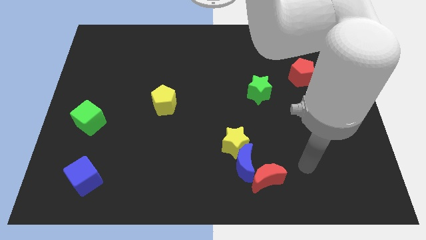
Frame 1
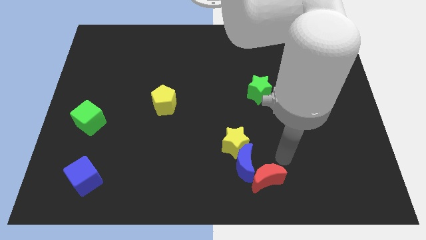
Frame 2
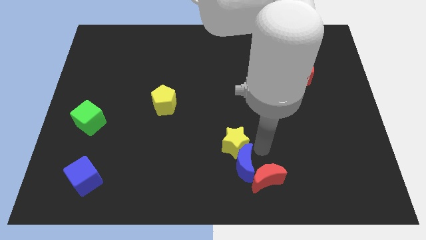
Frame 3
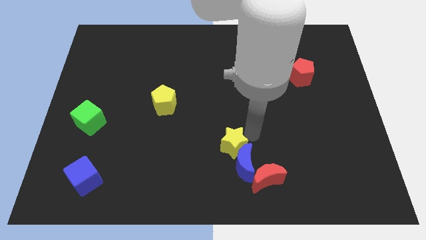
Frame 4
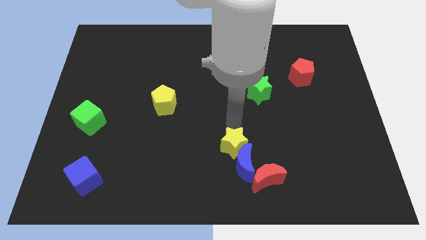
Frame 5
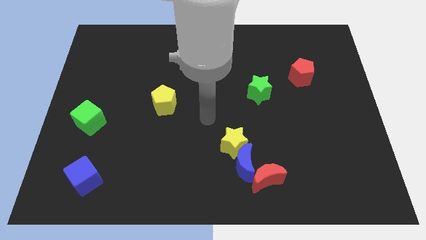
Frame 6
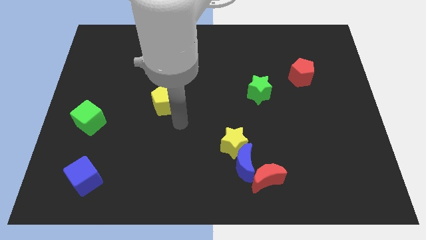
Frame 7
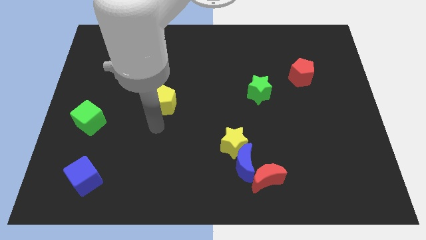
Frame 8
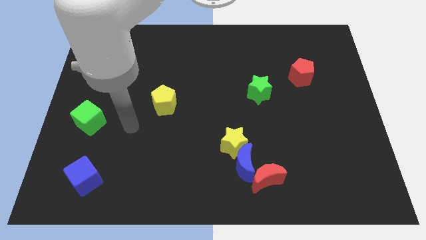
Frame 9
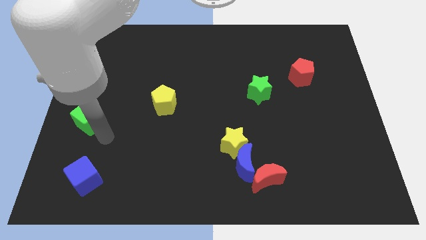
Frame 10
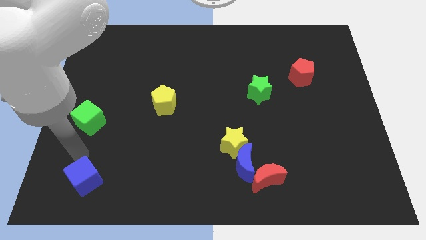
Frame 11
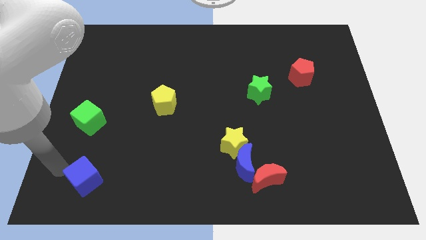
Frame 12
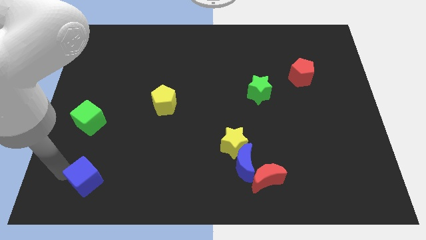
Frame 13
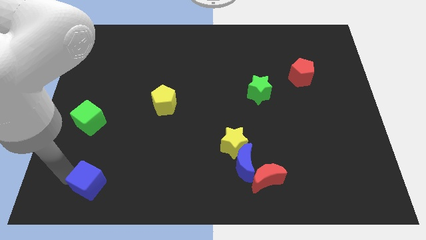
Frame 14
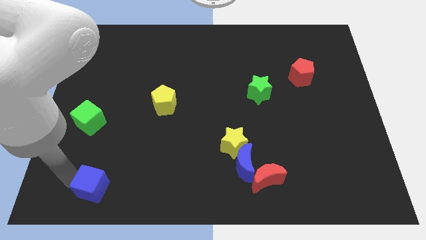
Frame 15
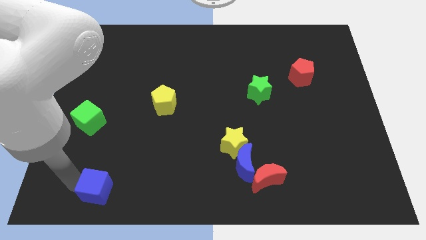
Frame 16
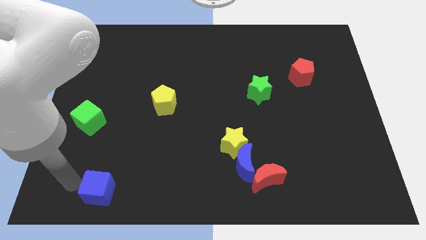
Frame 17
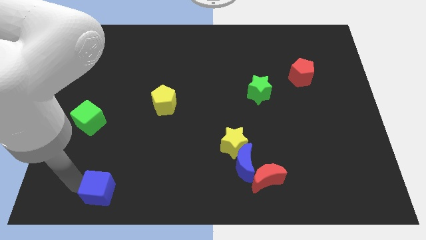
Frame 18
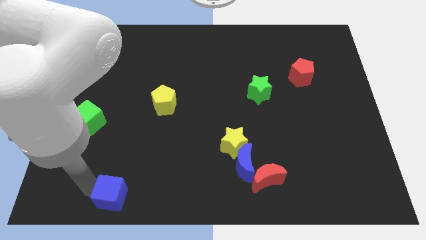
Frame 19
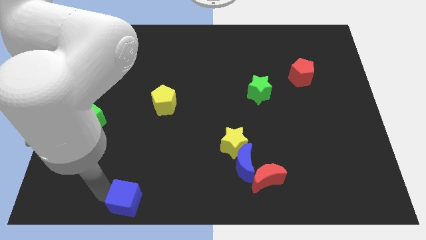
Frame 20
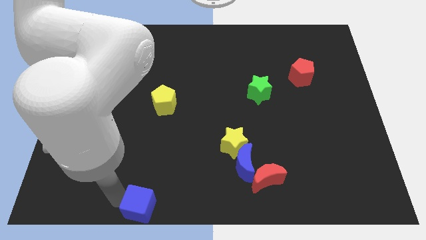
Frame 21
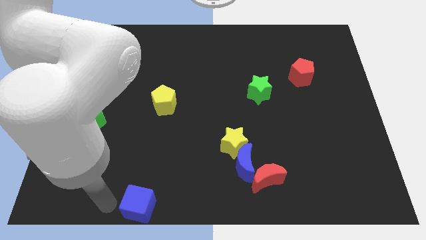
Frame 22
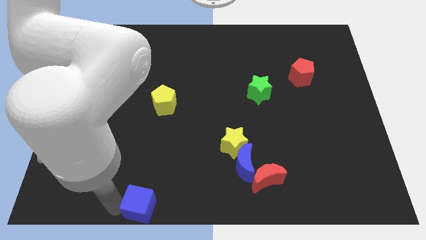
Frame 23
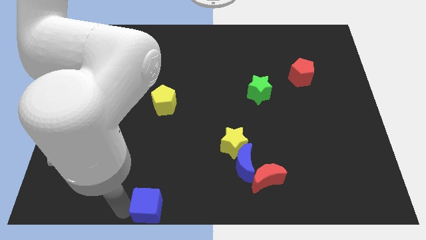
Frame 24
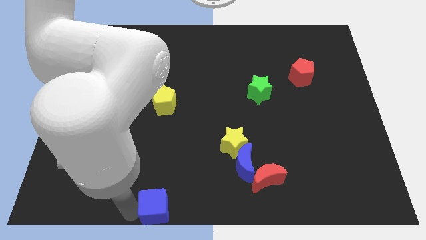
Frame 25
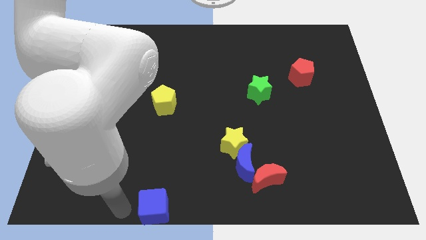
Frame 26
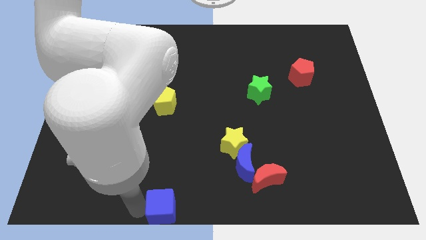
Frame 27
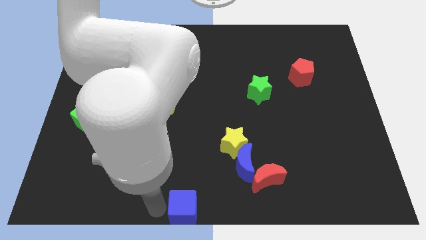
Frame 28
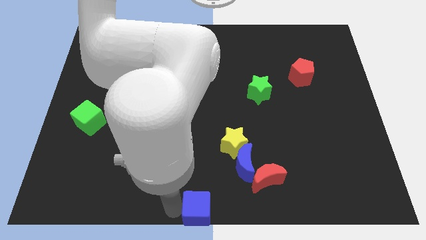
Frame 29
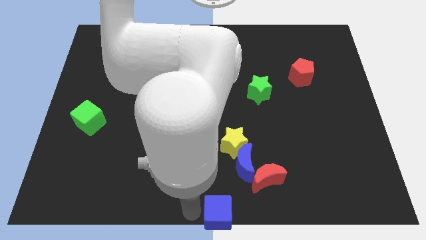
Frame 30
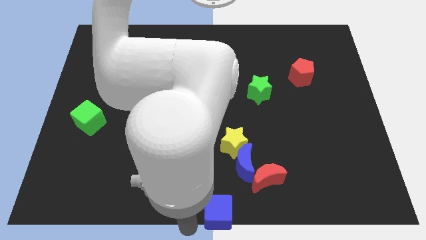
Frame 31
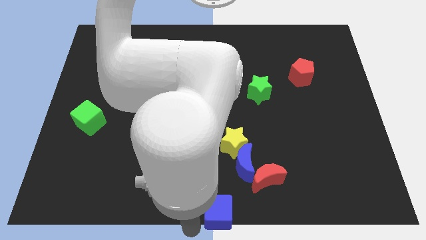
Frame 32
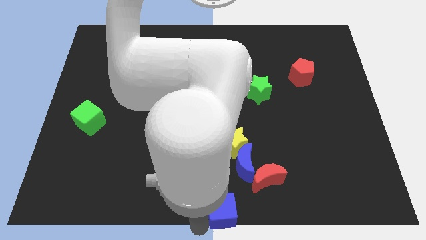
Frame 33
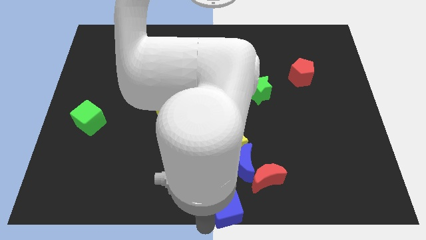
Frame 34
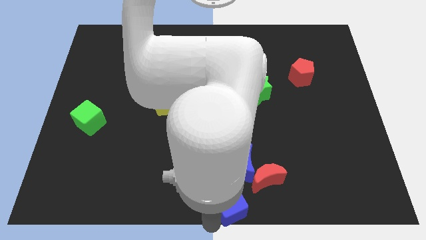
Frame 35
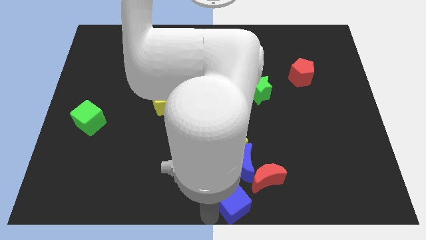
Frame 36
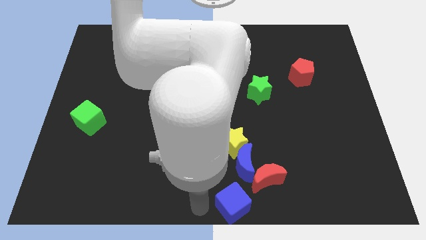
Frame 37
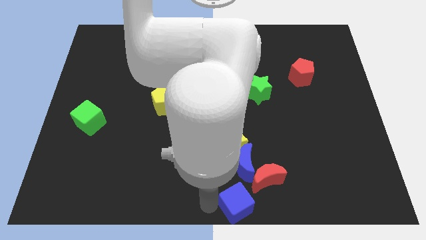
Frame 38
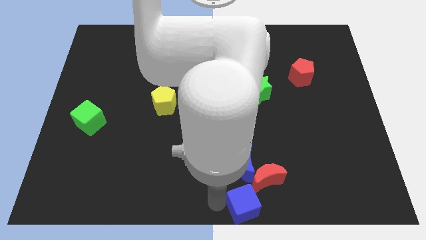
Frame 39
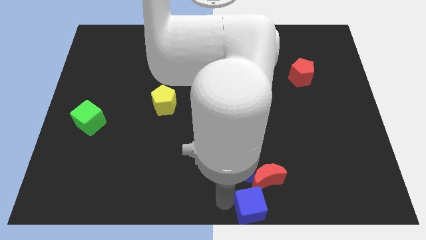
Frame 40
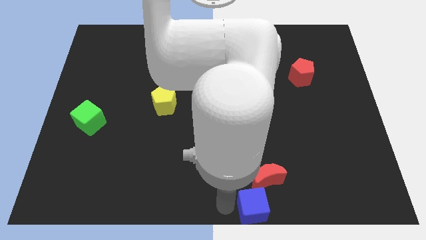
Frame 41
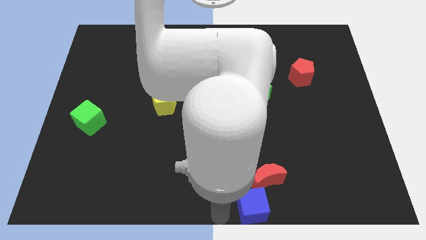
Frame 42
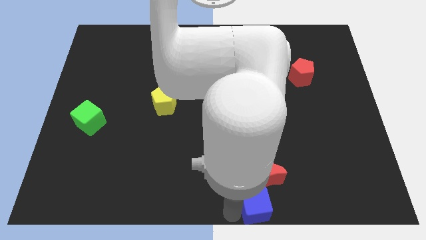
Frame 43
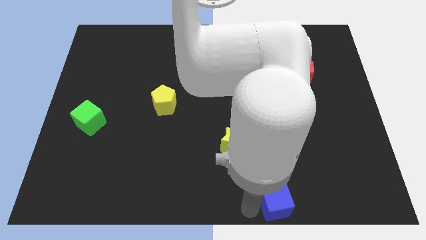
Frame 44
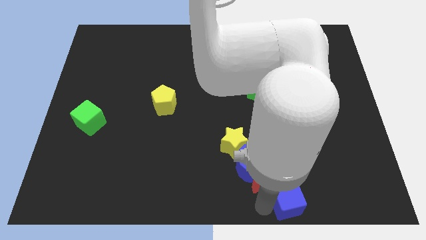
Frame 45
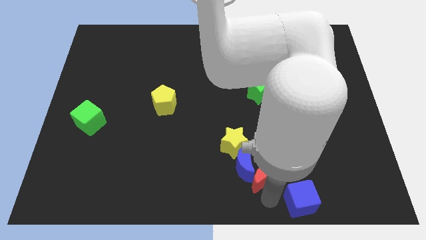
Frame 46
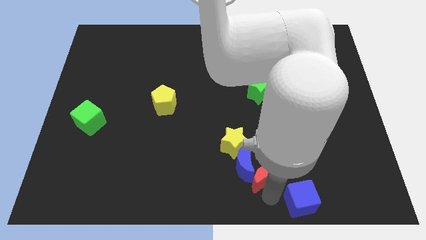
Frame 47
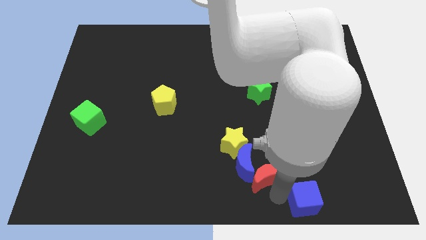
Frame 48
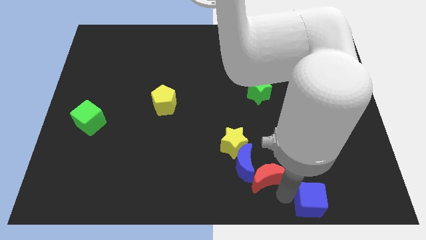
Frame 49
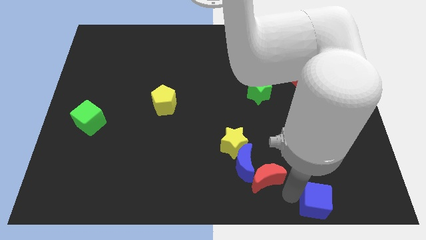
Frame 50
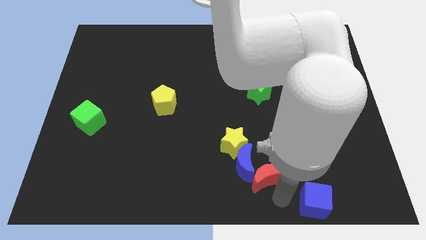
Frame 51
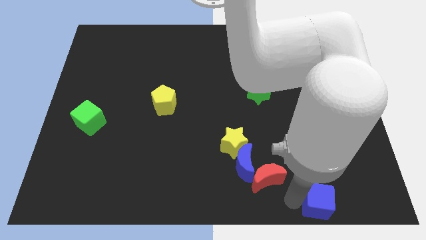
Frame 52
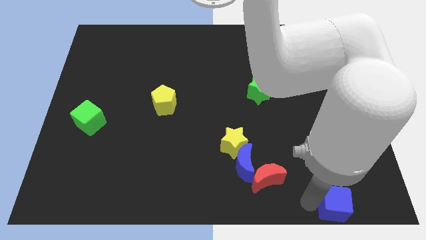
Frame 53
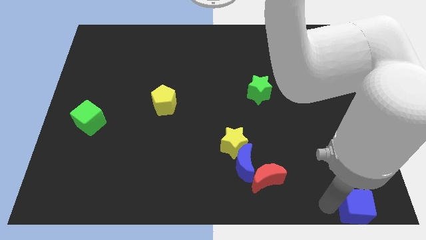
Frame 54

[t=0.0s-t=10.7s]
put the blue cube to the bottom right of the board

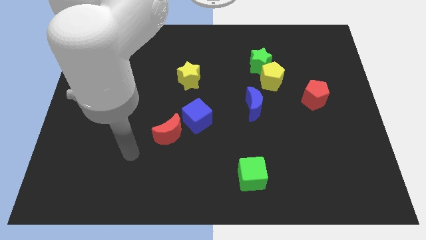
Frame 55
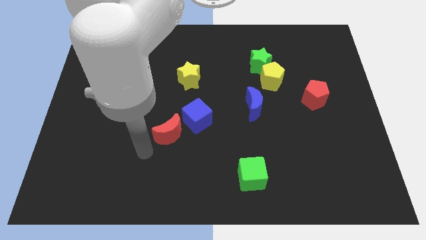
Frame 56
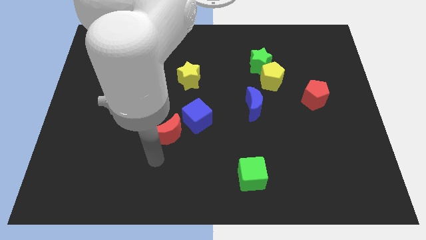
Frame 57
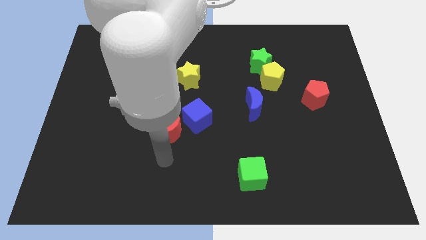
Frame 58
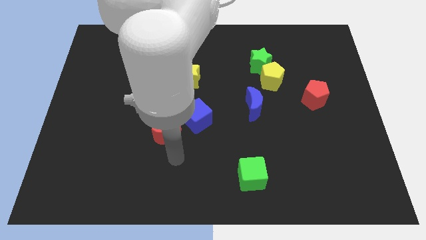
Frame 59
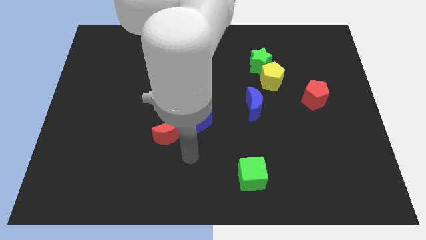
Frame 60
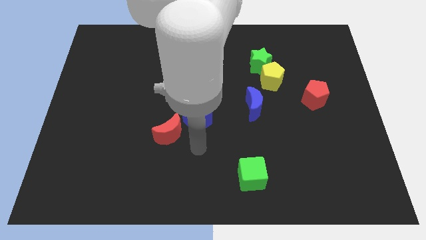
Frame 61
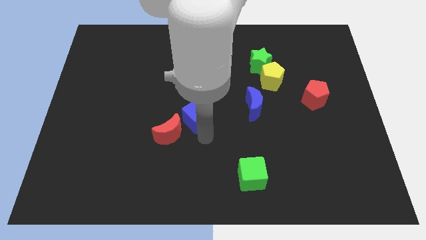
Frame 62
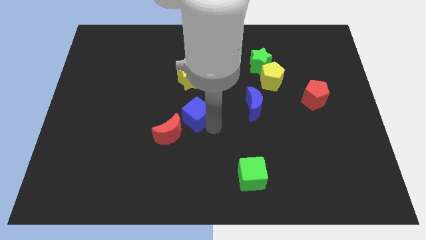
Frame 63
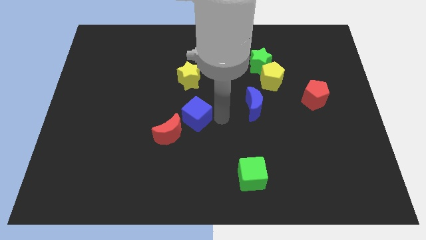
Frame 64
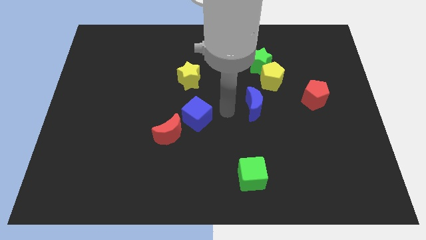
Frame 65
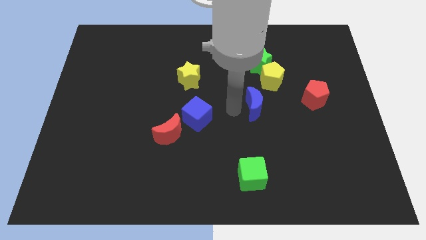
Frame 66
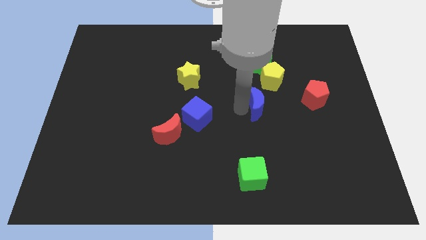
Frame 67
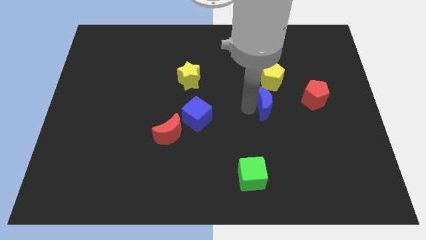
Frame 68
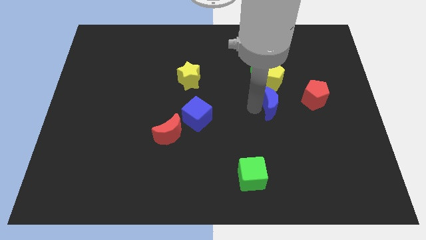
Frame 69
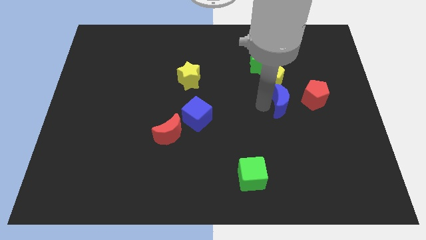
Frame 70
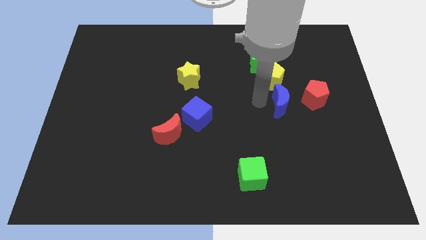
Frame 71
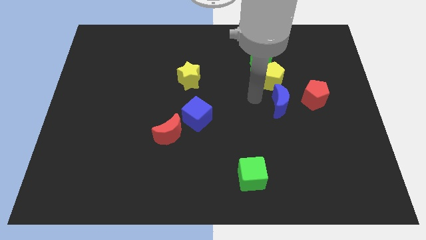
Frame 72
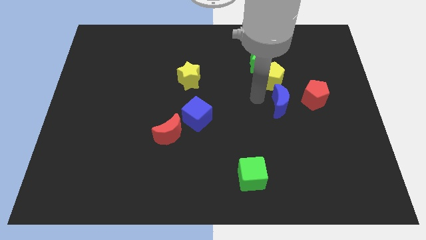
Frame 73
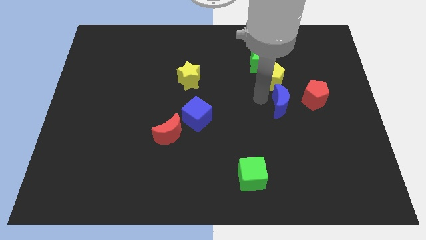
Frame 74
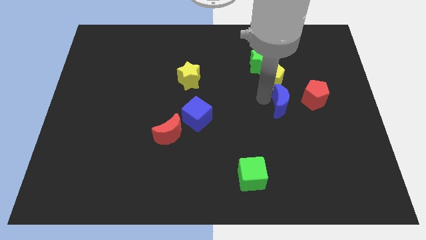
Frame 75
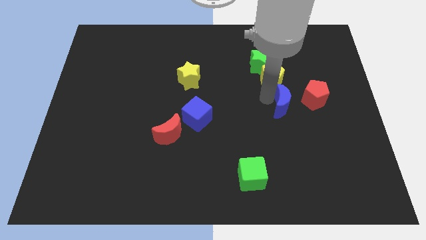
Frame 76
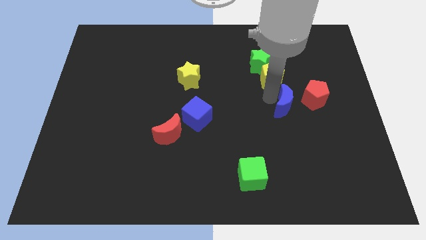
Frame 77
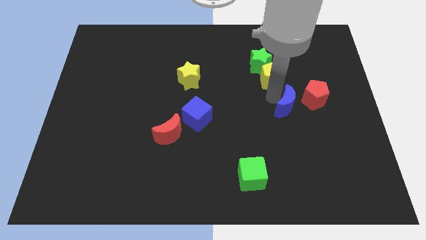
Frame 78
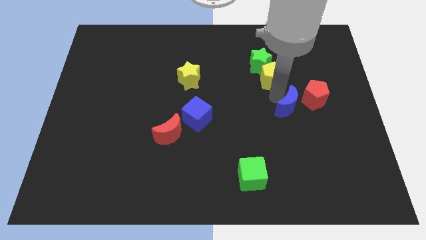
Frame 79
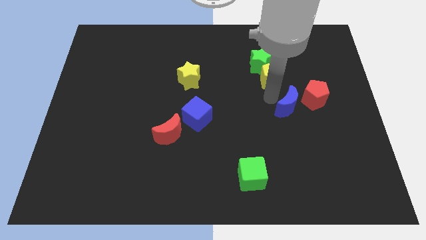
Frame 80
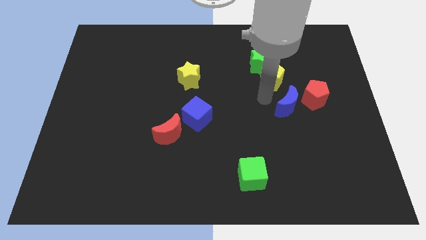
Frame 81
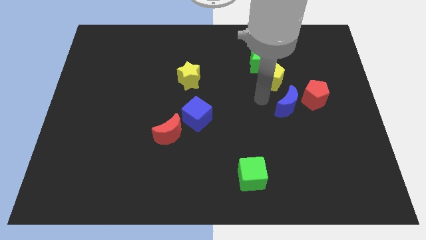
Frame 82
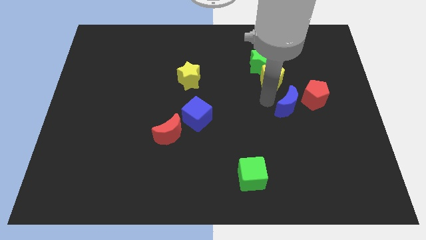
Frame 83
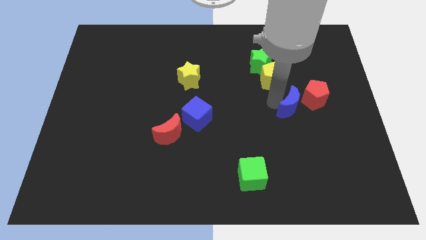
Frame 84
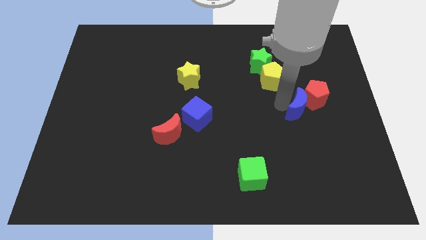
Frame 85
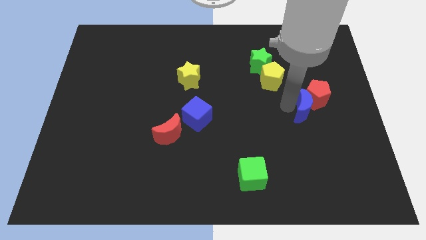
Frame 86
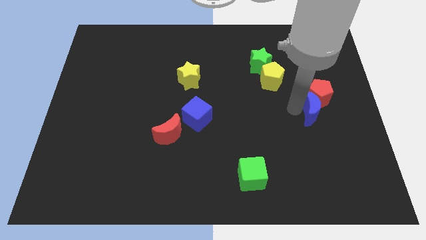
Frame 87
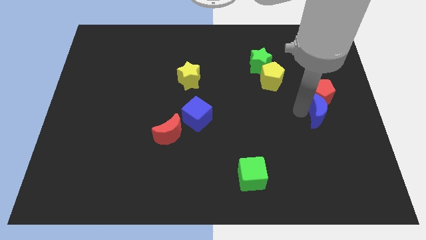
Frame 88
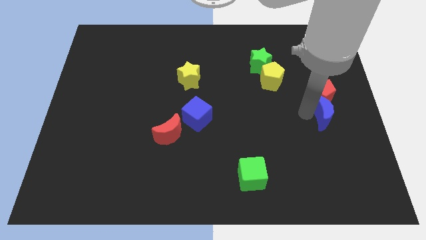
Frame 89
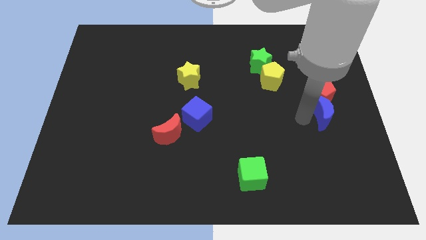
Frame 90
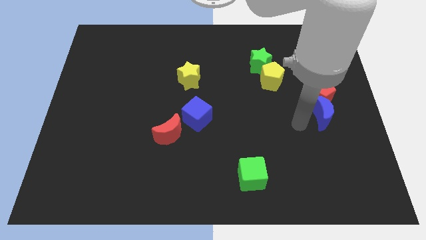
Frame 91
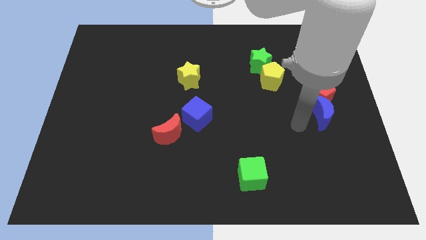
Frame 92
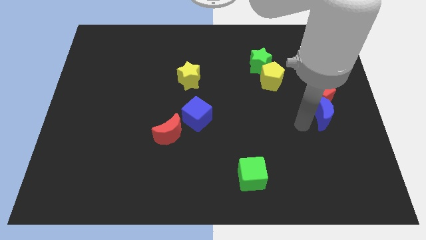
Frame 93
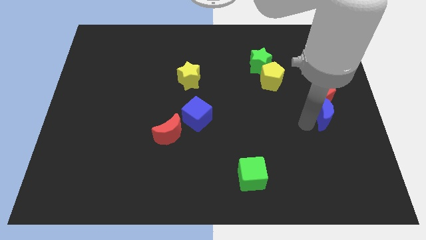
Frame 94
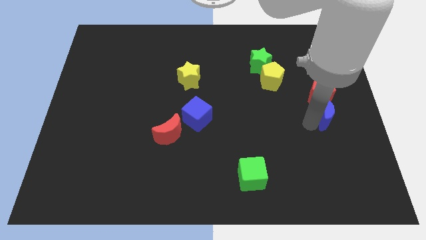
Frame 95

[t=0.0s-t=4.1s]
push the blue moon to the right side of the board
